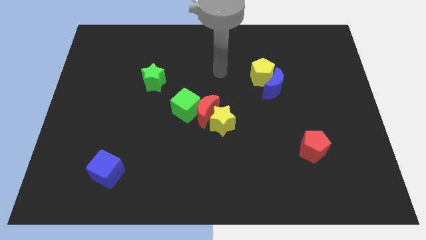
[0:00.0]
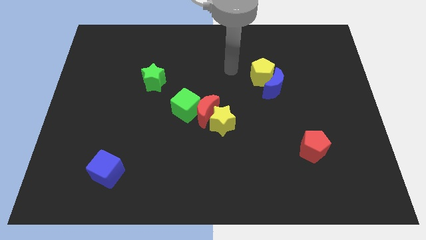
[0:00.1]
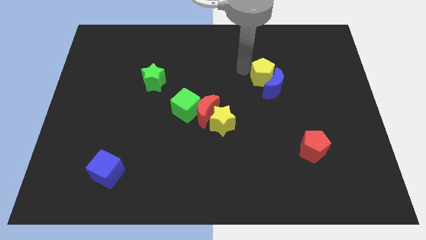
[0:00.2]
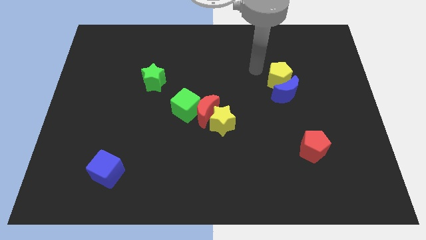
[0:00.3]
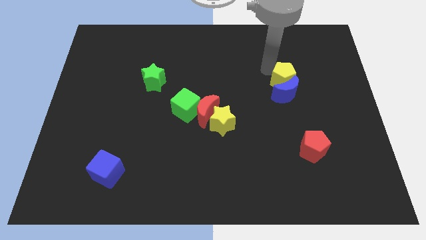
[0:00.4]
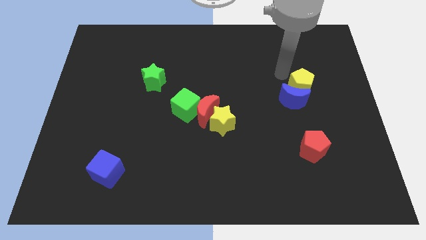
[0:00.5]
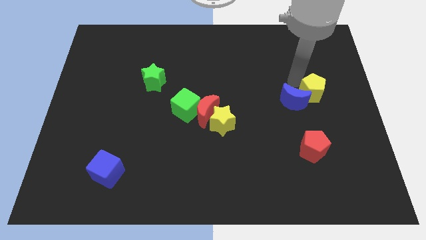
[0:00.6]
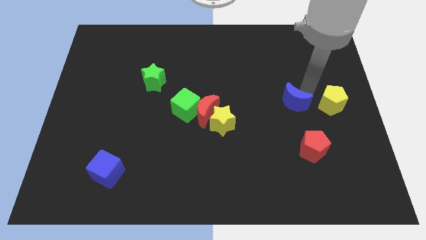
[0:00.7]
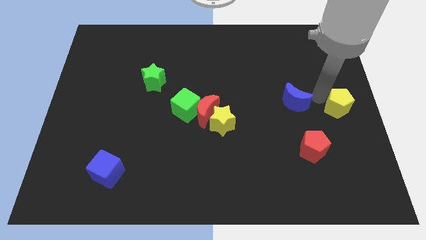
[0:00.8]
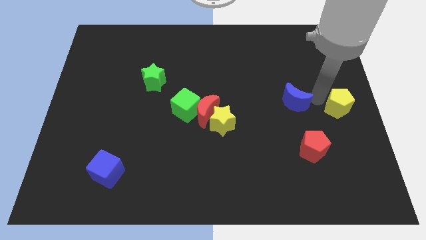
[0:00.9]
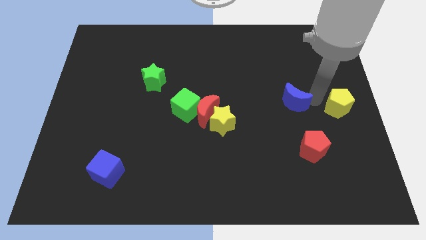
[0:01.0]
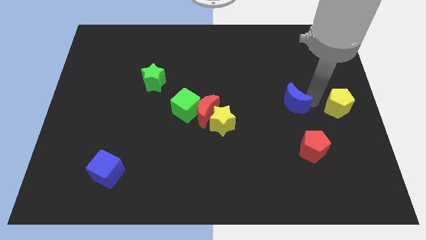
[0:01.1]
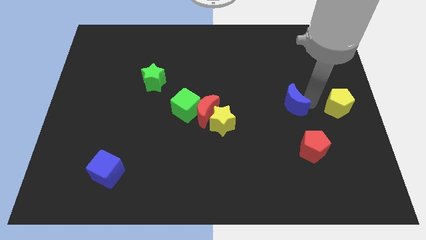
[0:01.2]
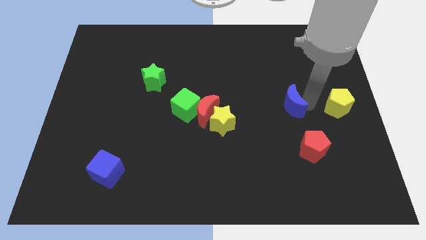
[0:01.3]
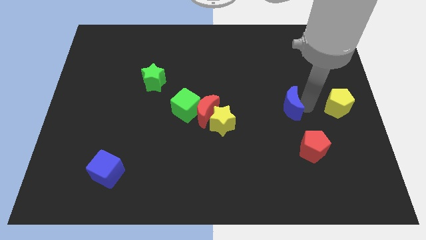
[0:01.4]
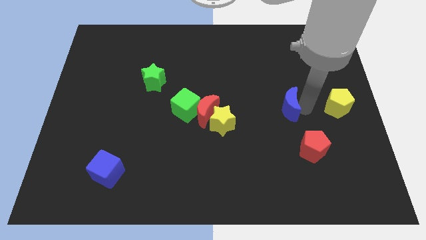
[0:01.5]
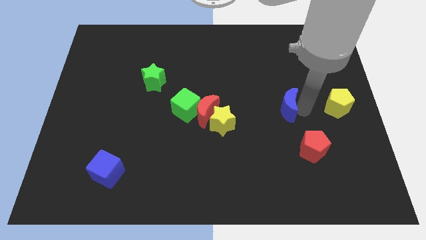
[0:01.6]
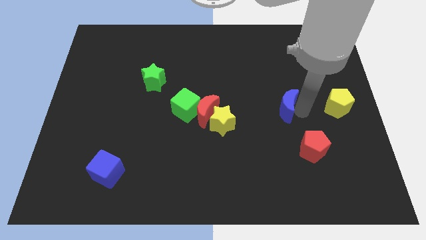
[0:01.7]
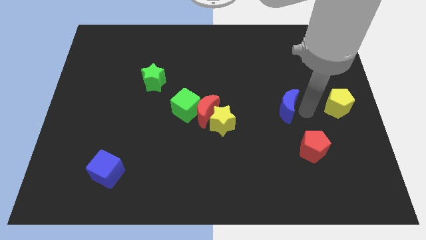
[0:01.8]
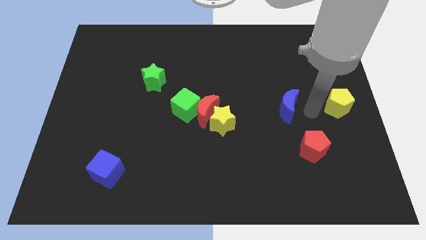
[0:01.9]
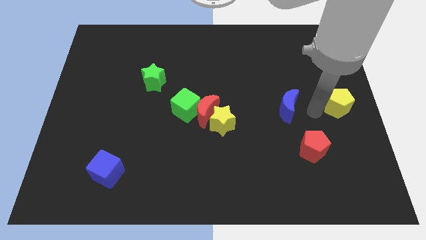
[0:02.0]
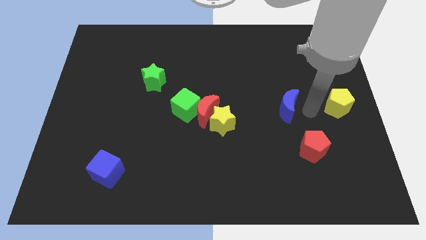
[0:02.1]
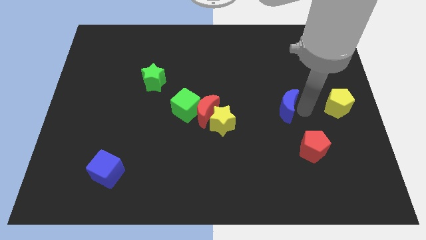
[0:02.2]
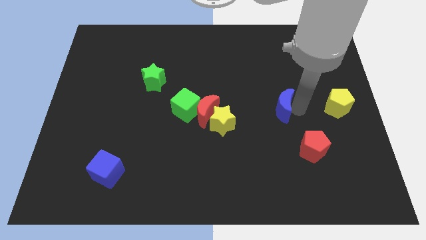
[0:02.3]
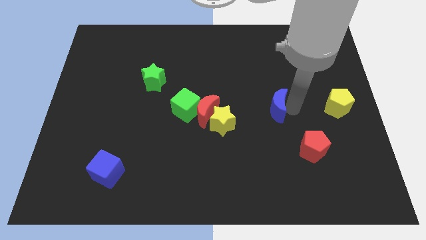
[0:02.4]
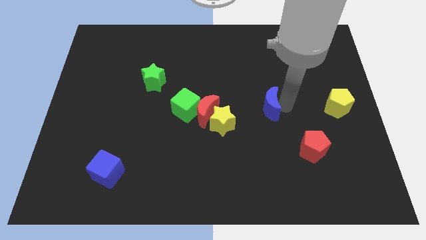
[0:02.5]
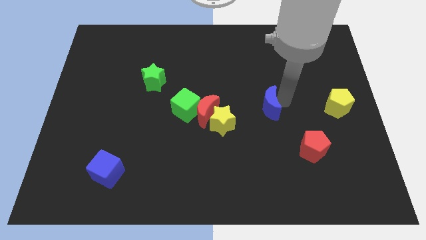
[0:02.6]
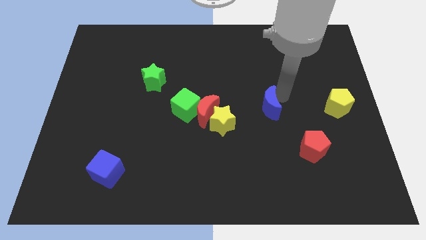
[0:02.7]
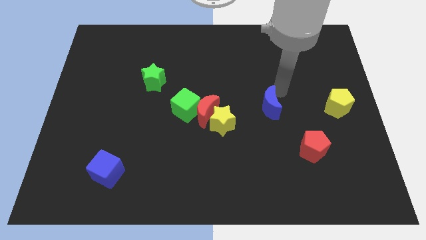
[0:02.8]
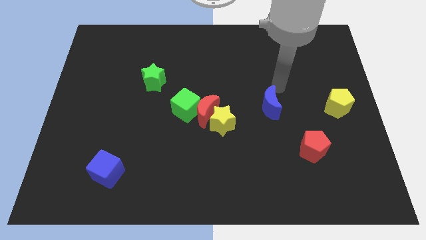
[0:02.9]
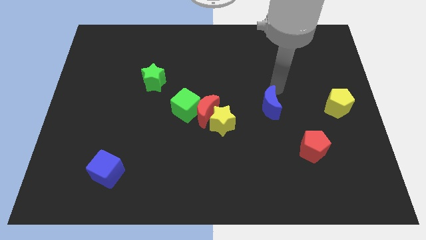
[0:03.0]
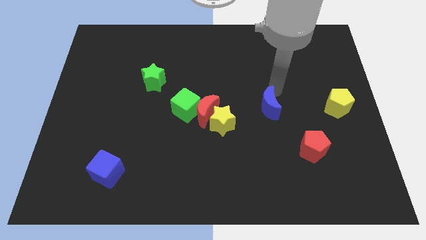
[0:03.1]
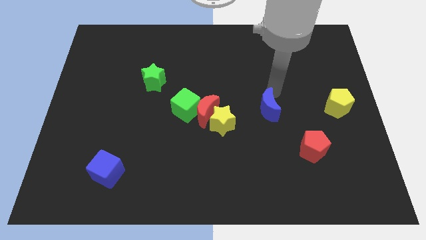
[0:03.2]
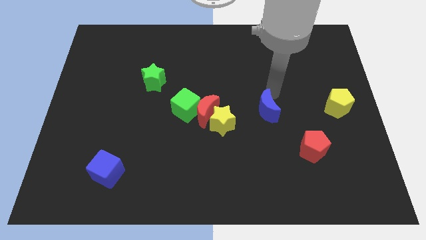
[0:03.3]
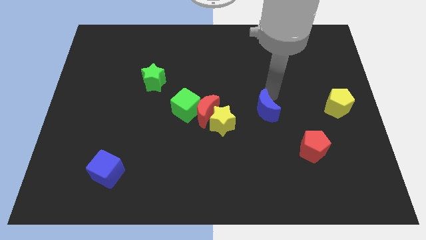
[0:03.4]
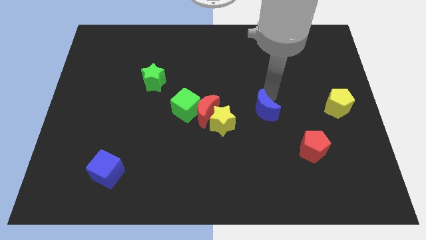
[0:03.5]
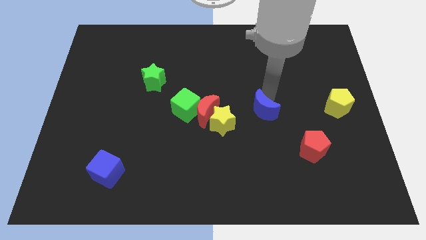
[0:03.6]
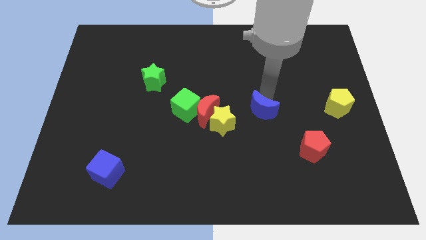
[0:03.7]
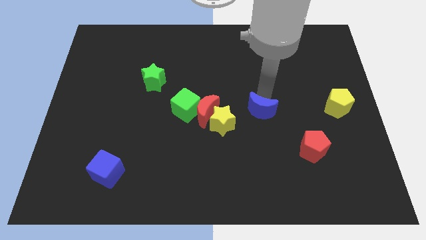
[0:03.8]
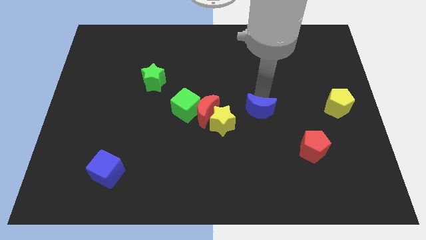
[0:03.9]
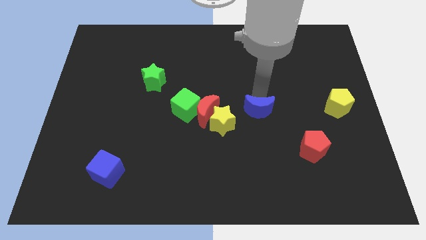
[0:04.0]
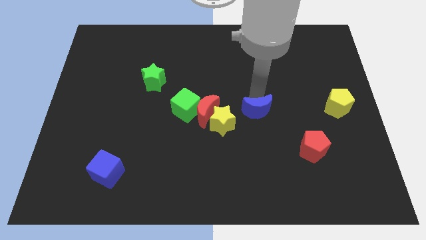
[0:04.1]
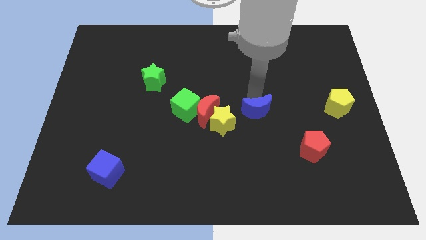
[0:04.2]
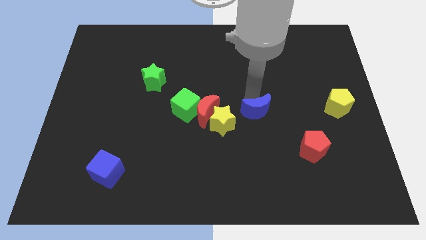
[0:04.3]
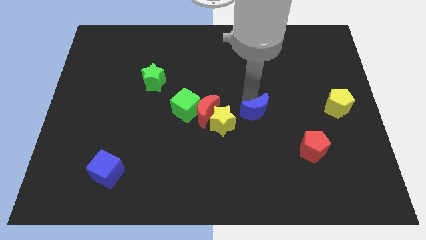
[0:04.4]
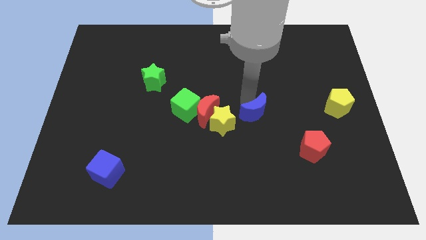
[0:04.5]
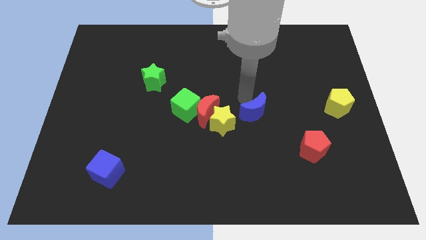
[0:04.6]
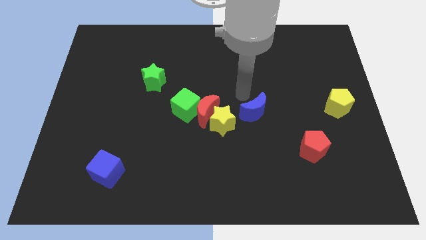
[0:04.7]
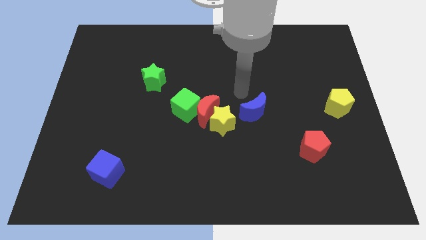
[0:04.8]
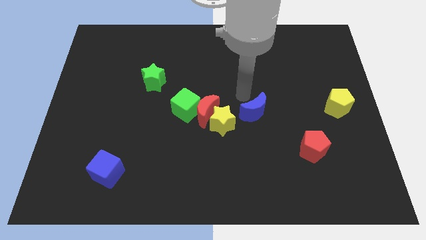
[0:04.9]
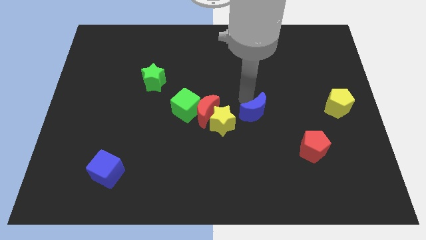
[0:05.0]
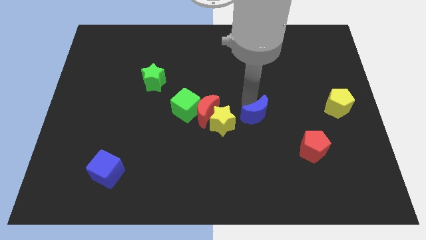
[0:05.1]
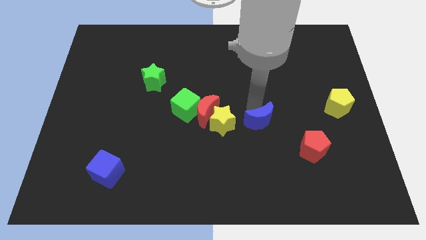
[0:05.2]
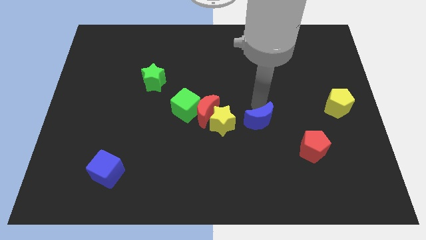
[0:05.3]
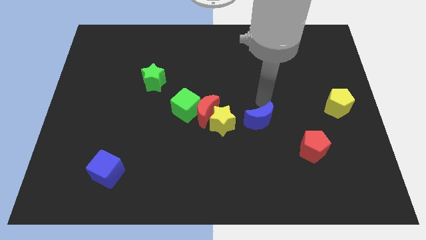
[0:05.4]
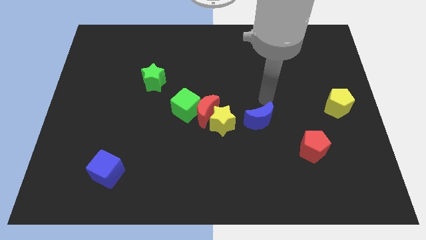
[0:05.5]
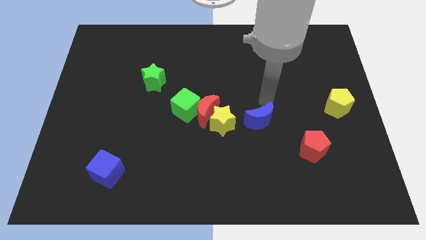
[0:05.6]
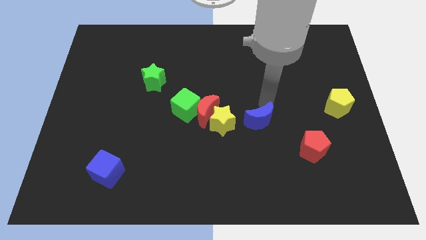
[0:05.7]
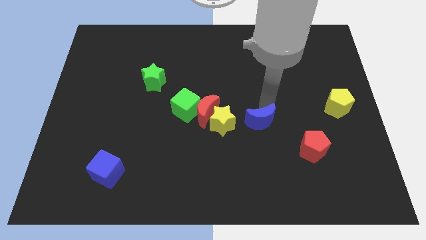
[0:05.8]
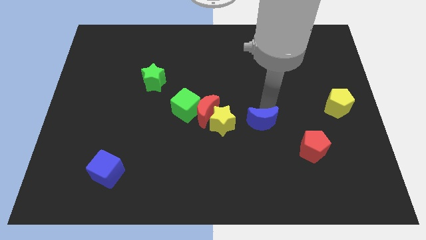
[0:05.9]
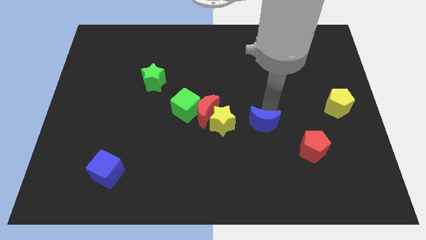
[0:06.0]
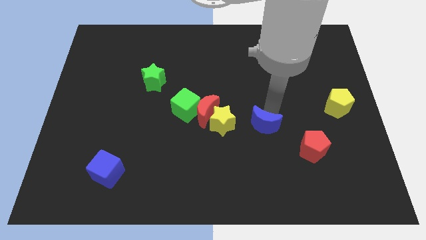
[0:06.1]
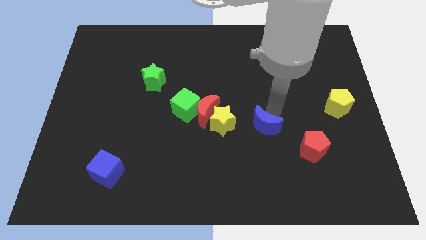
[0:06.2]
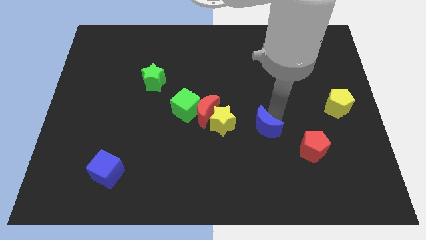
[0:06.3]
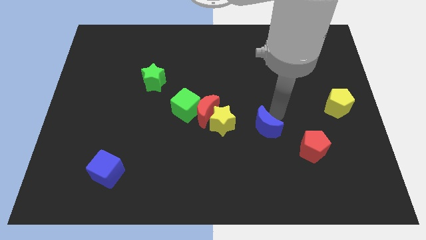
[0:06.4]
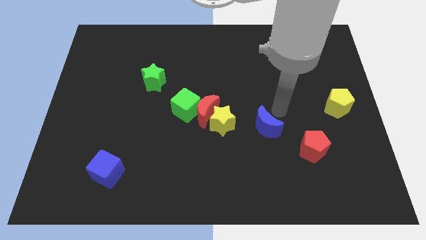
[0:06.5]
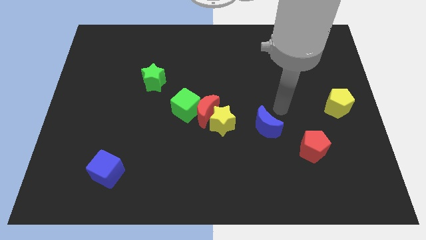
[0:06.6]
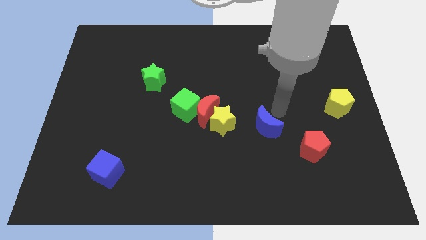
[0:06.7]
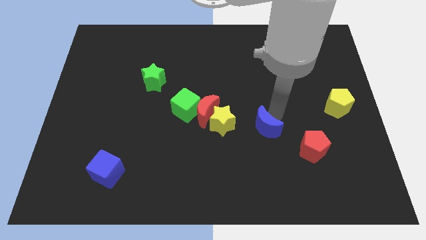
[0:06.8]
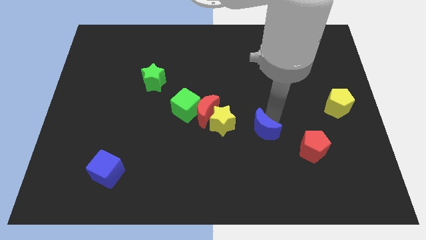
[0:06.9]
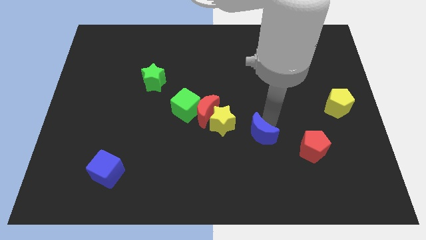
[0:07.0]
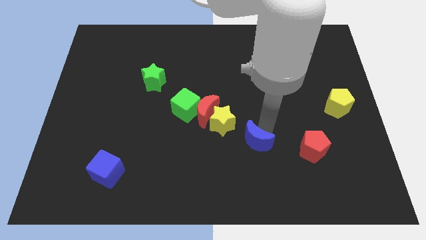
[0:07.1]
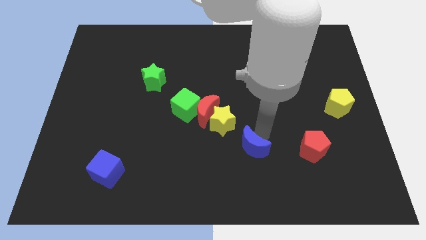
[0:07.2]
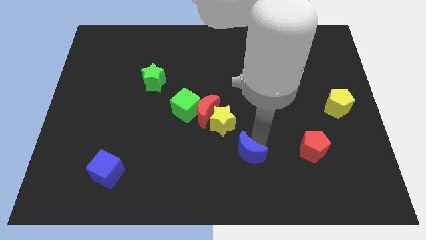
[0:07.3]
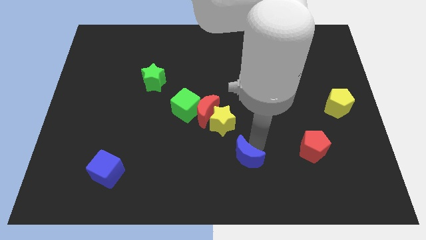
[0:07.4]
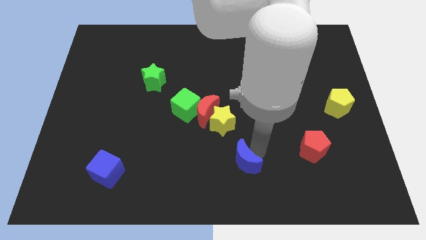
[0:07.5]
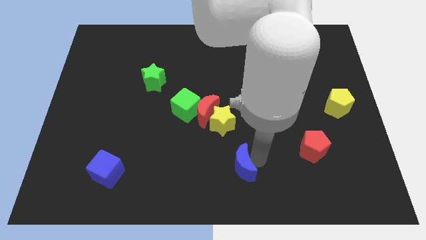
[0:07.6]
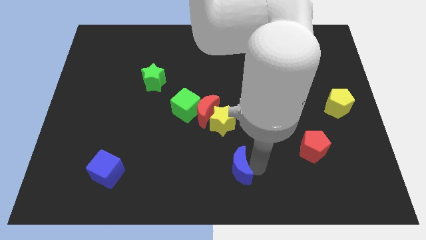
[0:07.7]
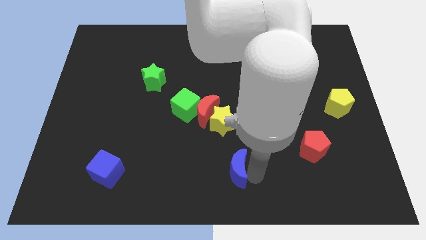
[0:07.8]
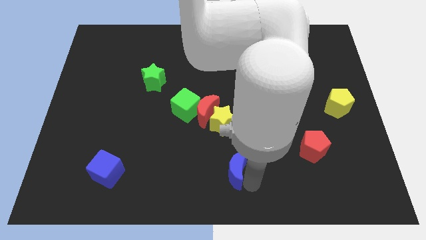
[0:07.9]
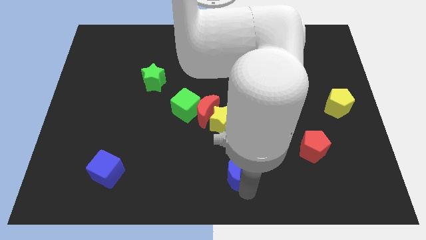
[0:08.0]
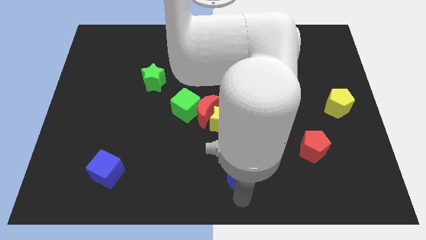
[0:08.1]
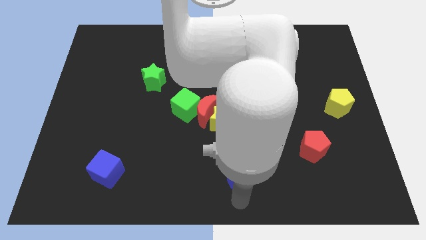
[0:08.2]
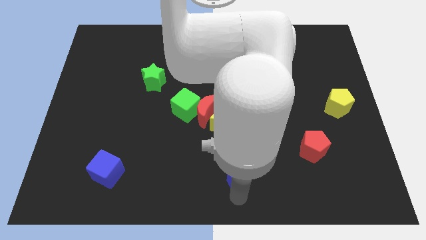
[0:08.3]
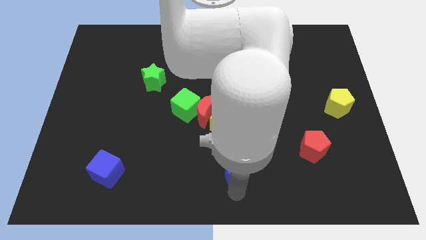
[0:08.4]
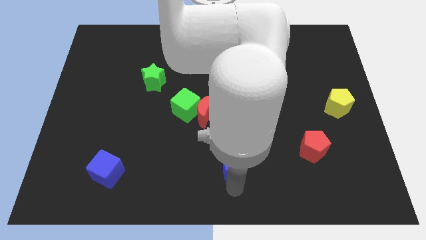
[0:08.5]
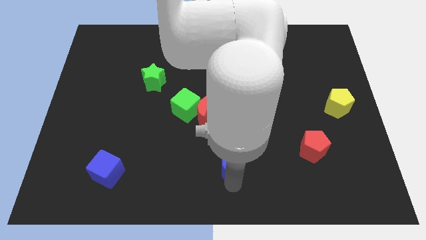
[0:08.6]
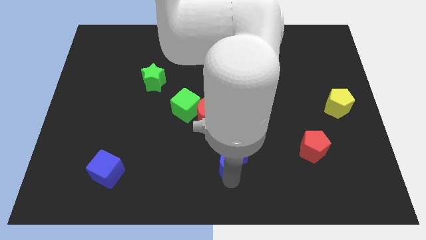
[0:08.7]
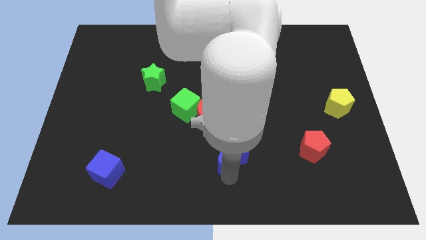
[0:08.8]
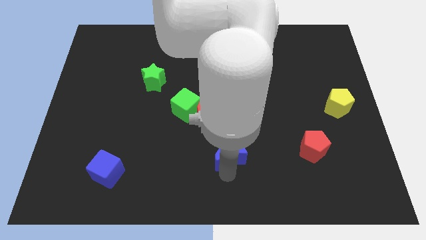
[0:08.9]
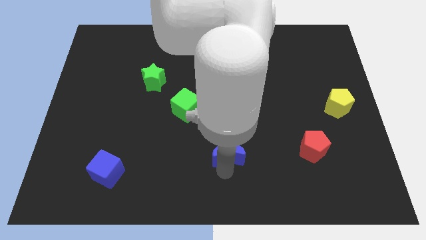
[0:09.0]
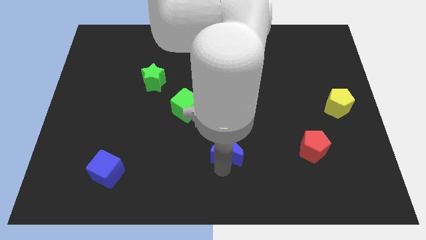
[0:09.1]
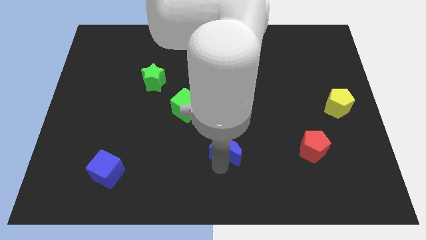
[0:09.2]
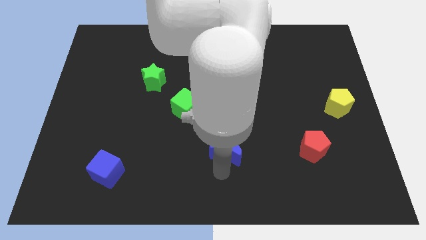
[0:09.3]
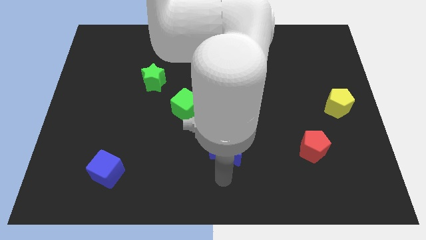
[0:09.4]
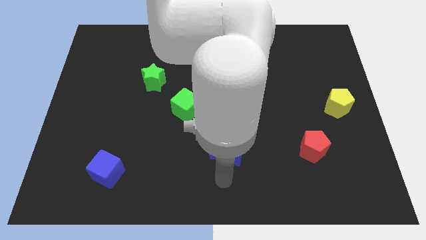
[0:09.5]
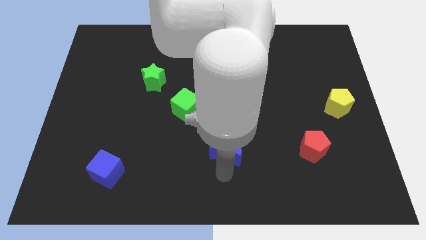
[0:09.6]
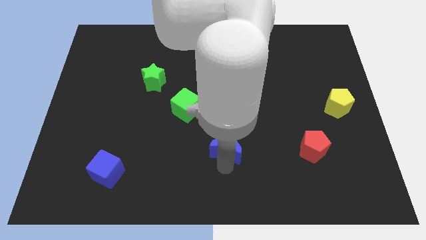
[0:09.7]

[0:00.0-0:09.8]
put the blue moon to the bottom right side of the red moon
